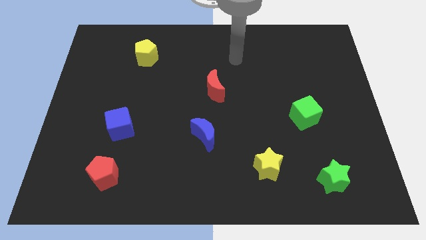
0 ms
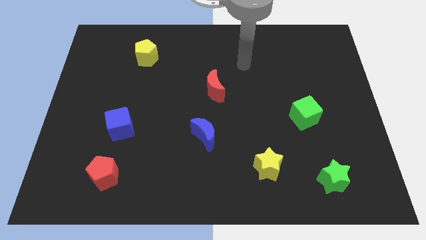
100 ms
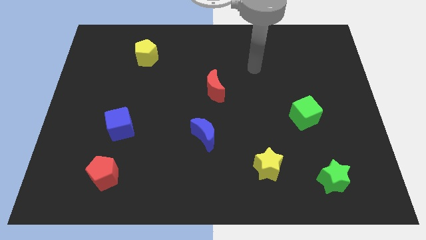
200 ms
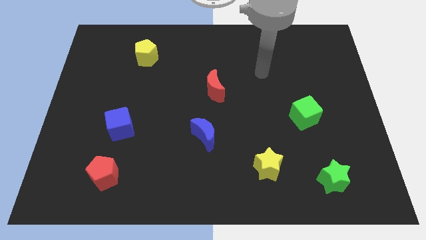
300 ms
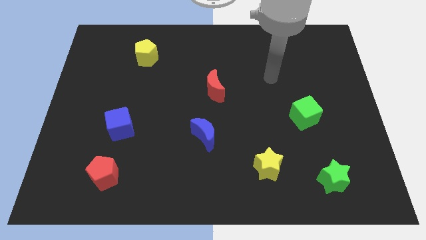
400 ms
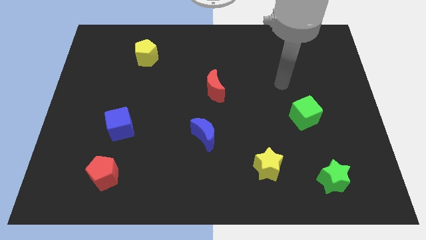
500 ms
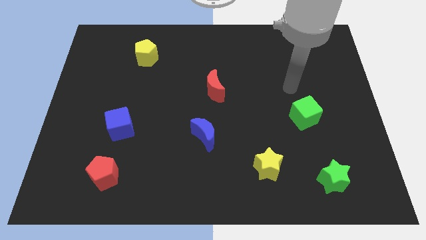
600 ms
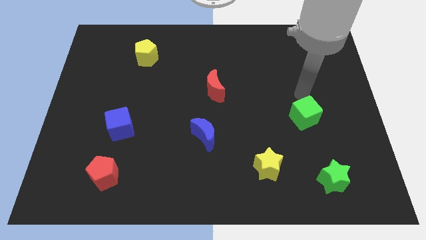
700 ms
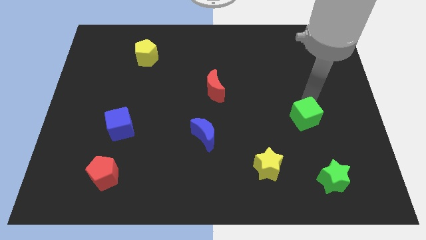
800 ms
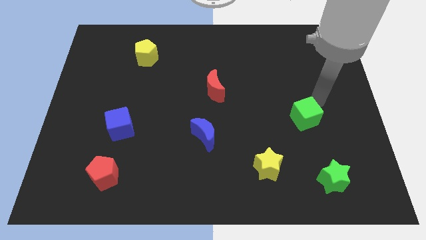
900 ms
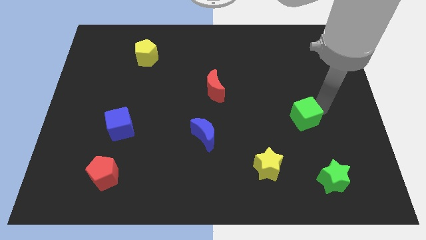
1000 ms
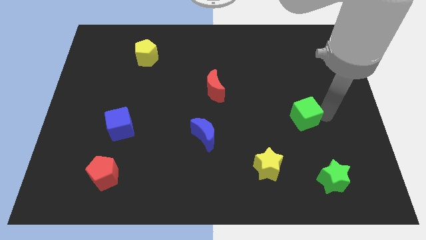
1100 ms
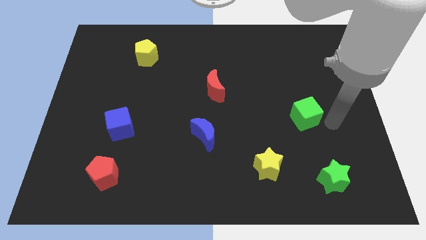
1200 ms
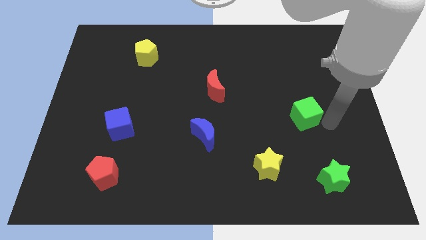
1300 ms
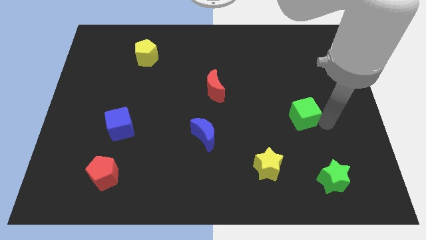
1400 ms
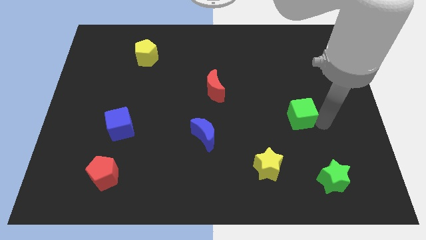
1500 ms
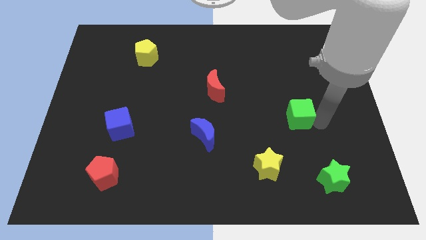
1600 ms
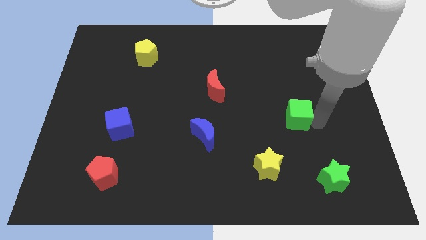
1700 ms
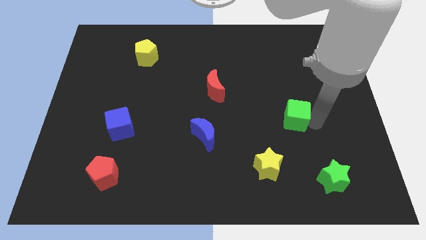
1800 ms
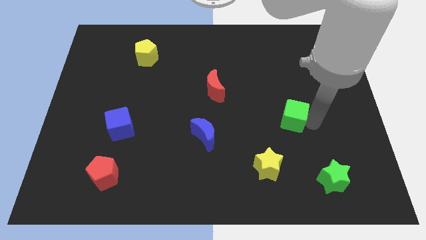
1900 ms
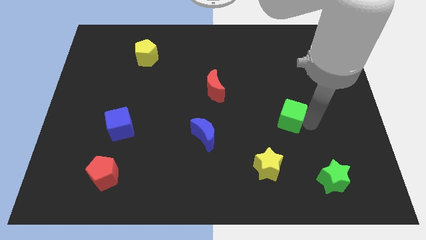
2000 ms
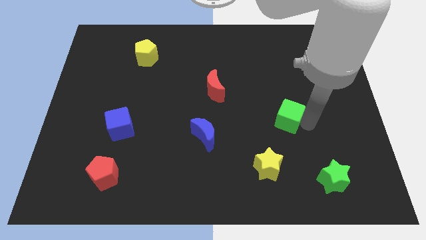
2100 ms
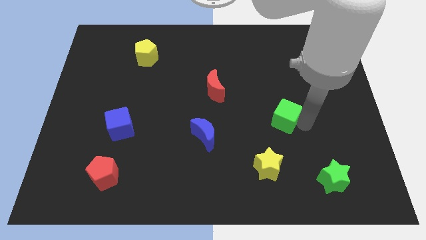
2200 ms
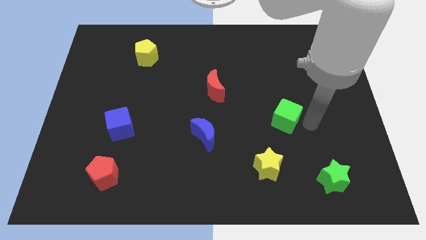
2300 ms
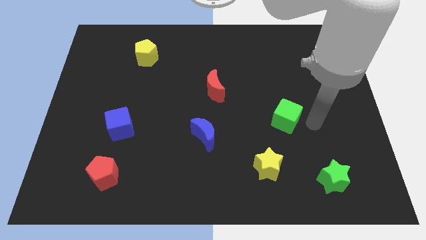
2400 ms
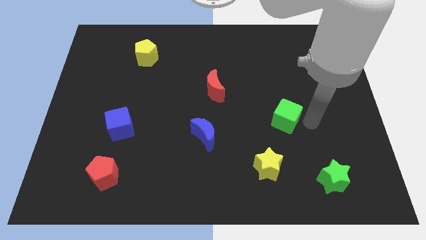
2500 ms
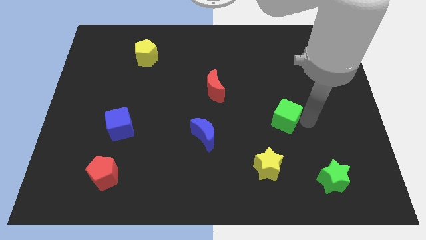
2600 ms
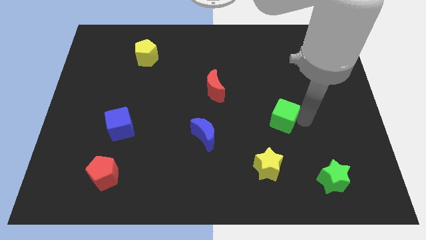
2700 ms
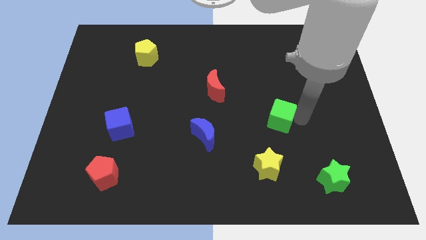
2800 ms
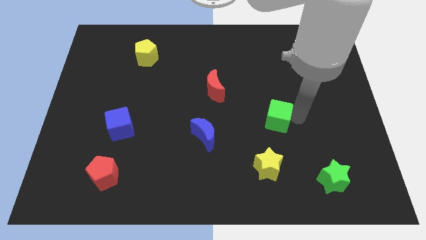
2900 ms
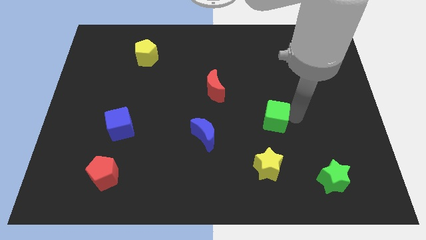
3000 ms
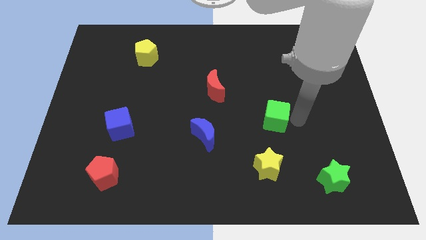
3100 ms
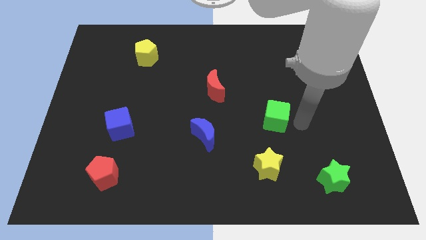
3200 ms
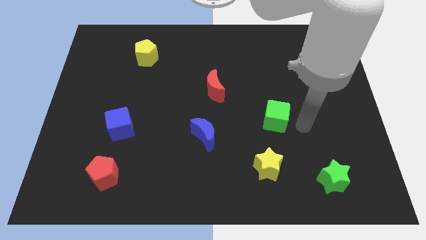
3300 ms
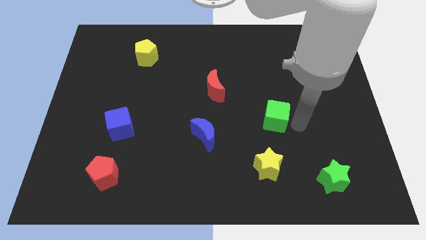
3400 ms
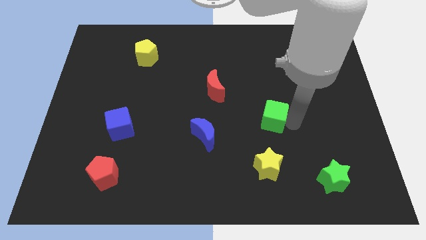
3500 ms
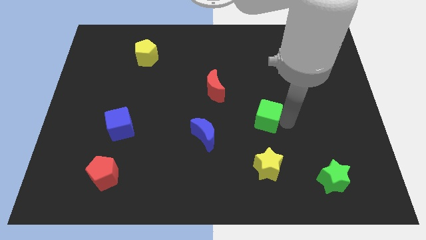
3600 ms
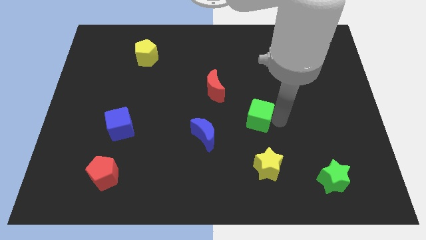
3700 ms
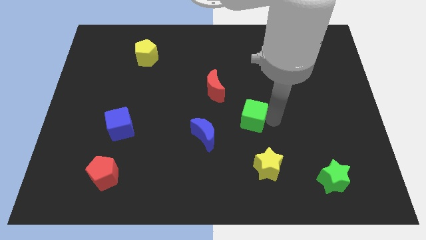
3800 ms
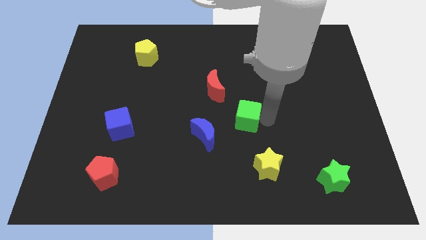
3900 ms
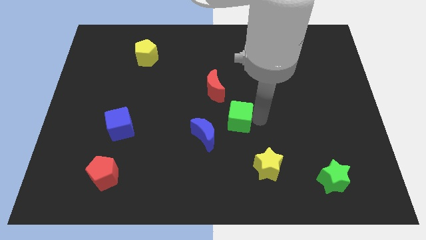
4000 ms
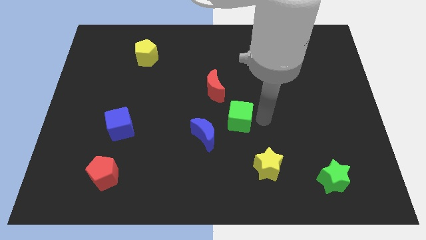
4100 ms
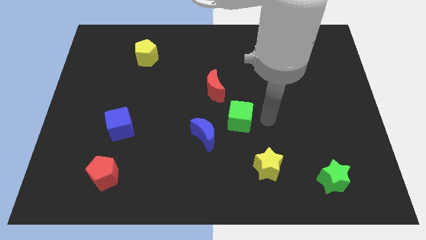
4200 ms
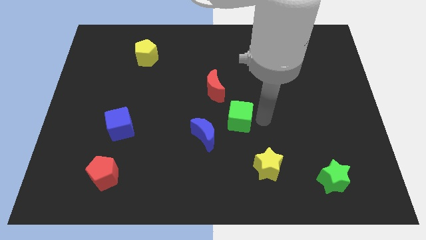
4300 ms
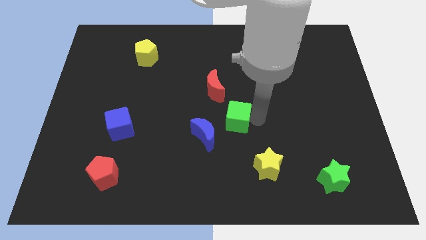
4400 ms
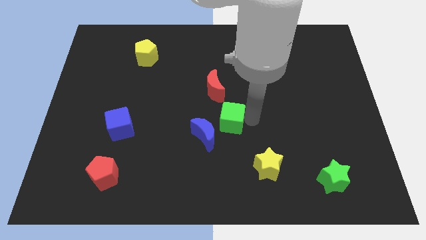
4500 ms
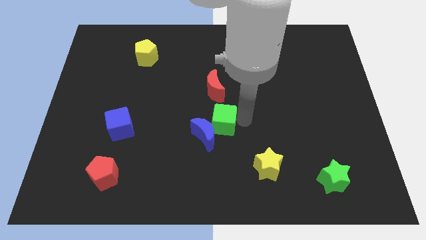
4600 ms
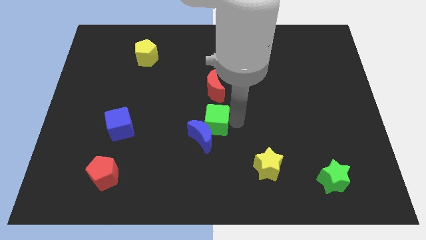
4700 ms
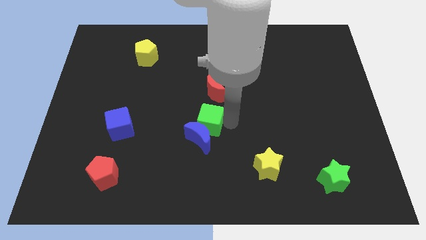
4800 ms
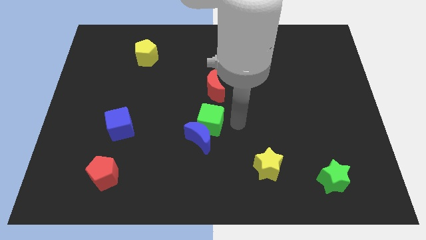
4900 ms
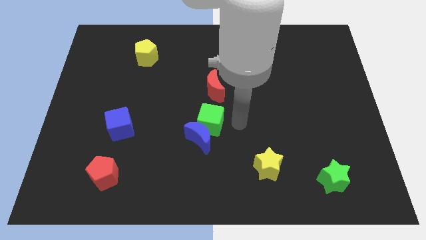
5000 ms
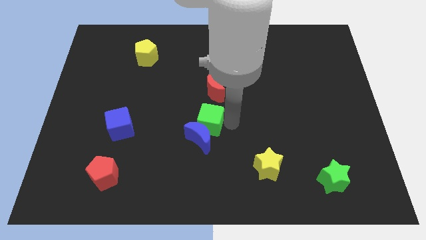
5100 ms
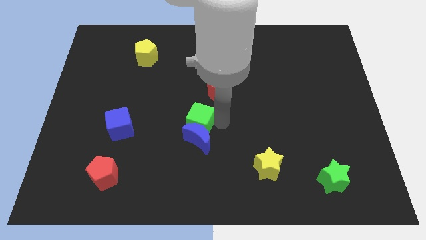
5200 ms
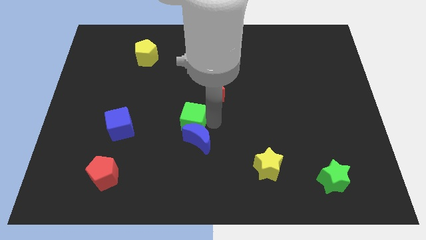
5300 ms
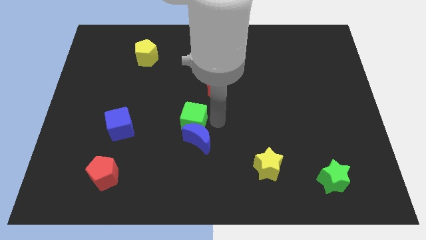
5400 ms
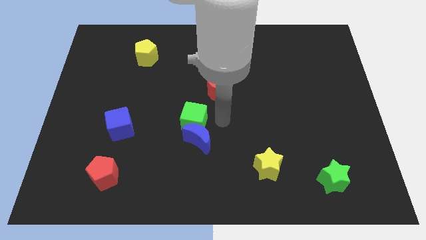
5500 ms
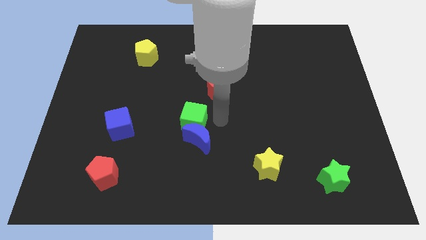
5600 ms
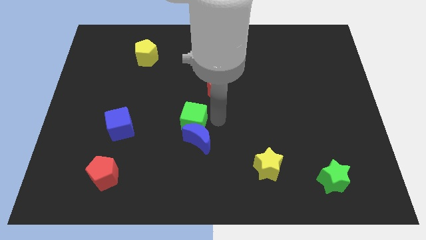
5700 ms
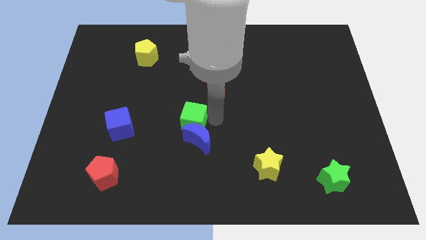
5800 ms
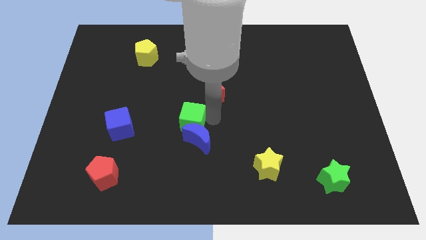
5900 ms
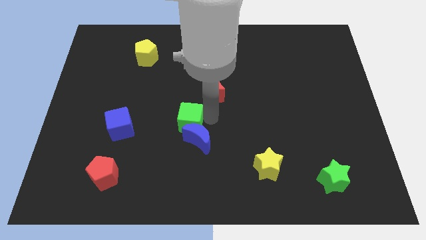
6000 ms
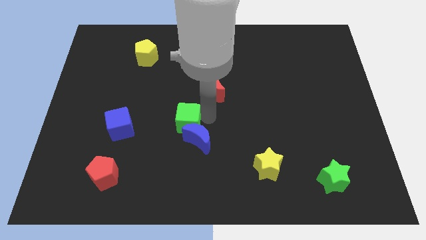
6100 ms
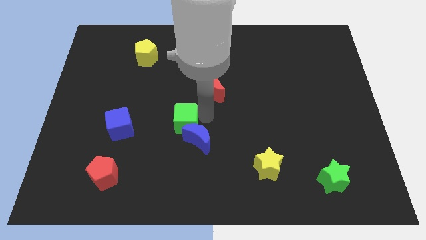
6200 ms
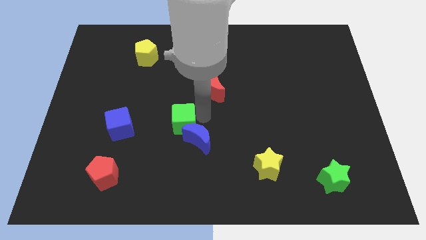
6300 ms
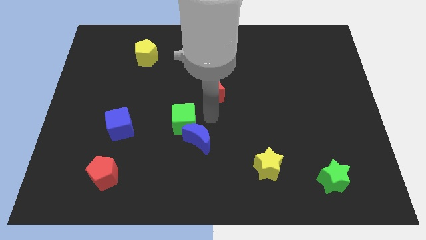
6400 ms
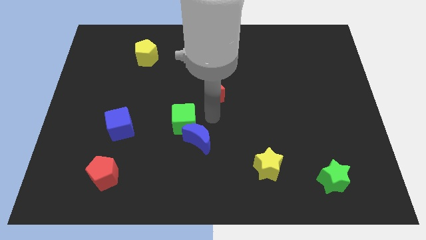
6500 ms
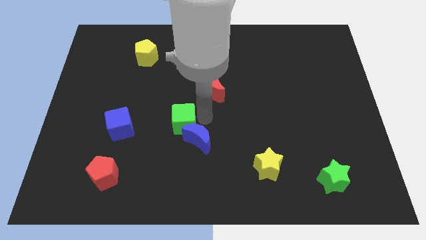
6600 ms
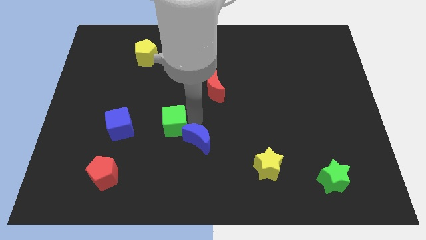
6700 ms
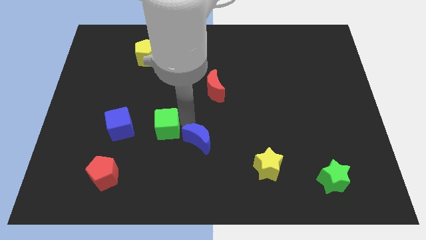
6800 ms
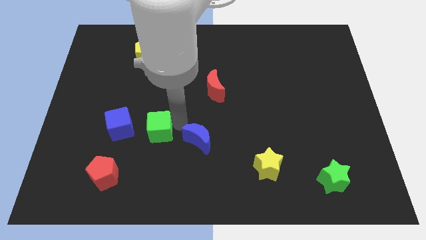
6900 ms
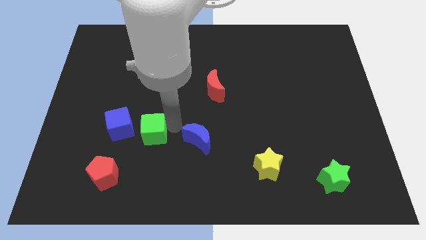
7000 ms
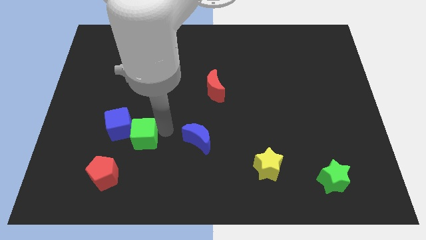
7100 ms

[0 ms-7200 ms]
move the green cube close to the blue cube

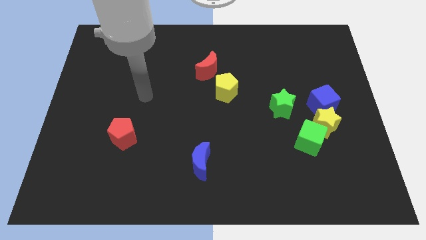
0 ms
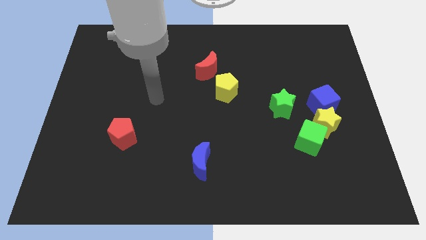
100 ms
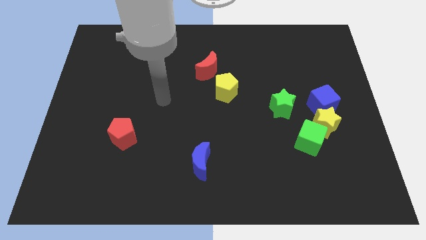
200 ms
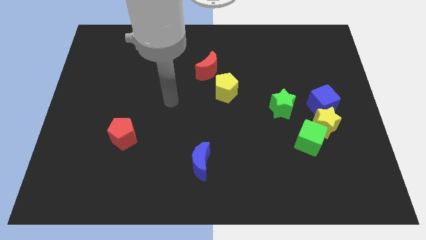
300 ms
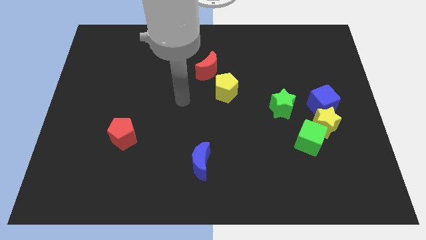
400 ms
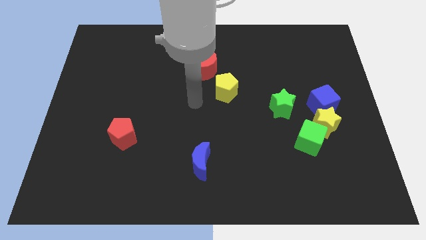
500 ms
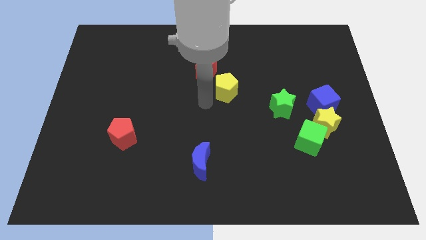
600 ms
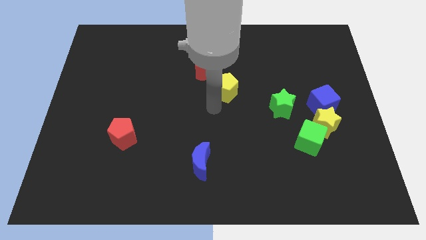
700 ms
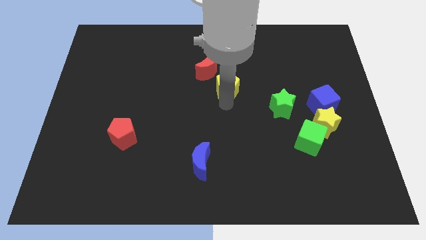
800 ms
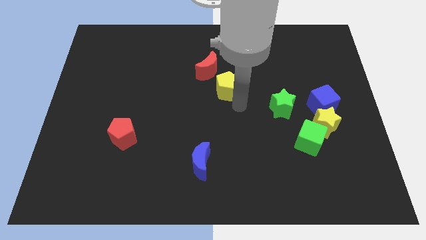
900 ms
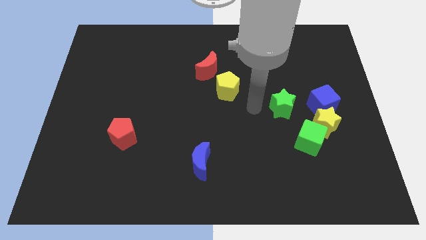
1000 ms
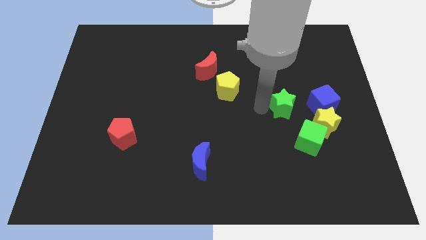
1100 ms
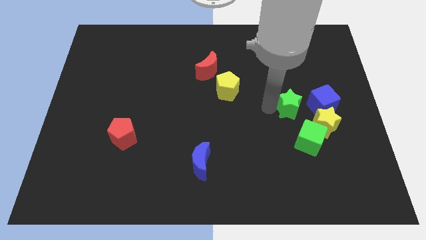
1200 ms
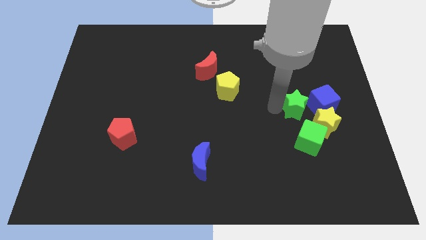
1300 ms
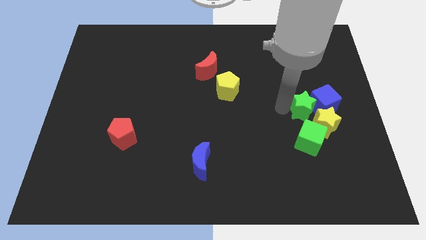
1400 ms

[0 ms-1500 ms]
put the green star close to the blue cube
